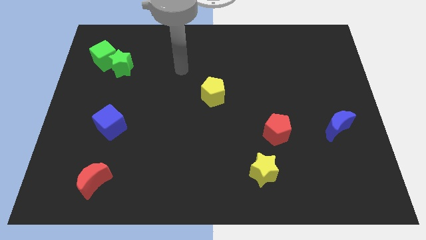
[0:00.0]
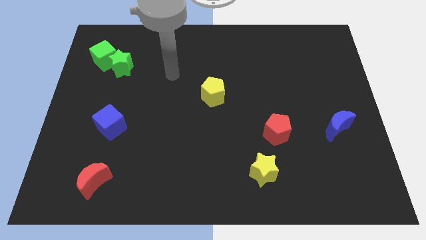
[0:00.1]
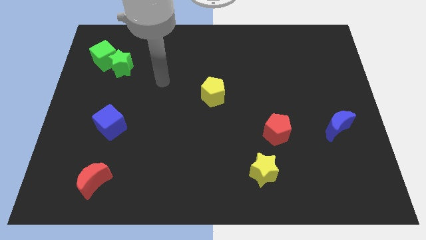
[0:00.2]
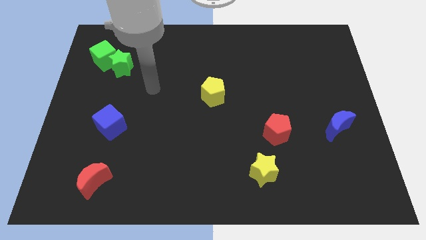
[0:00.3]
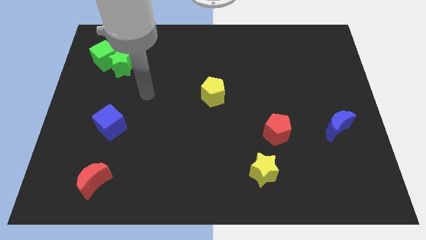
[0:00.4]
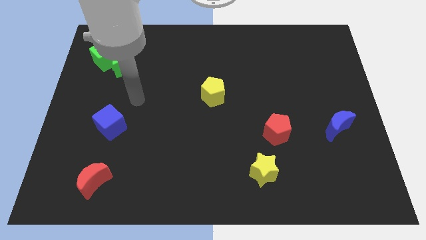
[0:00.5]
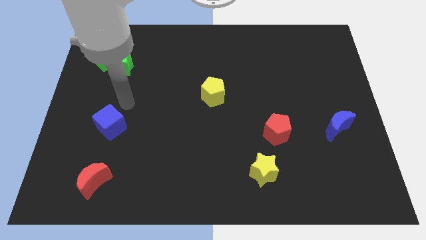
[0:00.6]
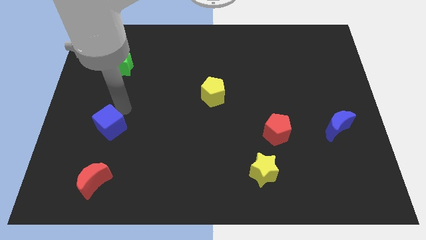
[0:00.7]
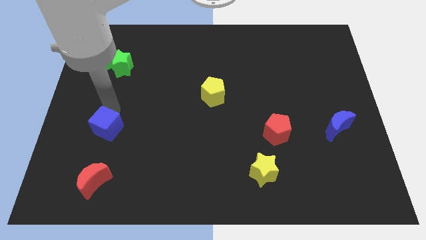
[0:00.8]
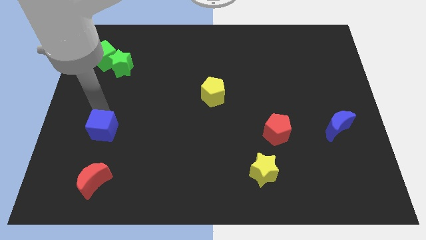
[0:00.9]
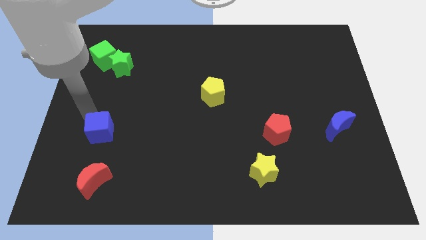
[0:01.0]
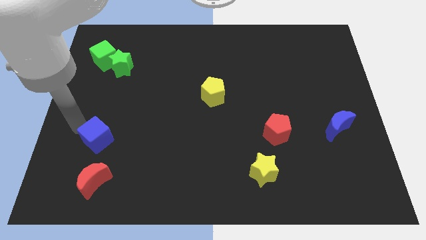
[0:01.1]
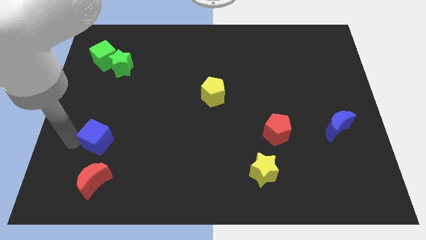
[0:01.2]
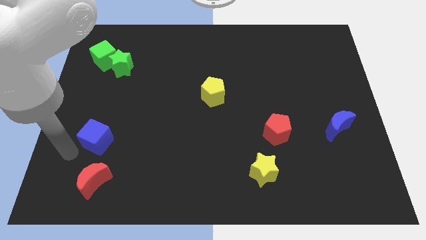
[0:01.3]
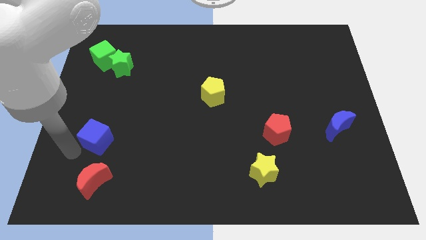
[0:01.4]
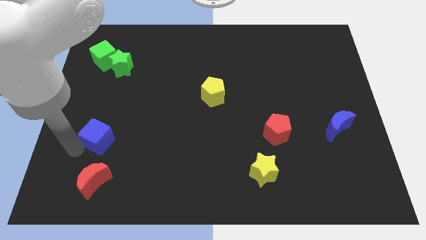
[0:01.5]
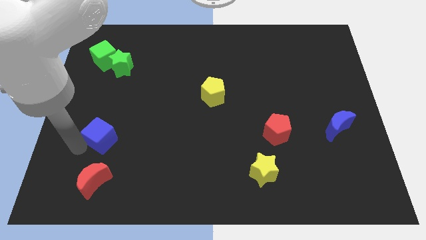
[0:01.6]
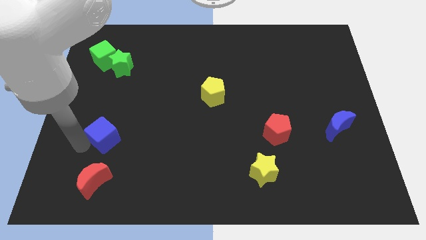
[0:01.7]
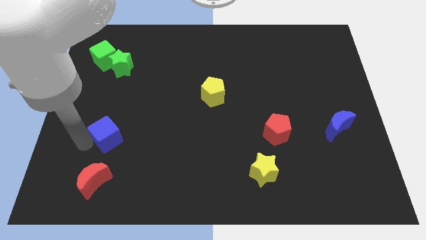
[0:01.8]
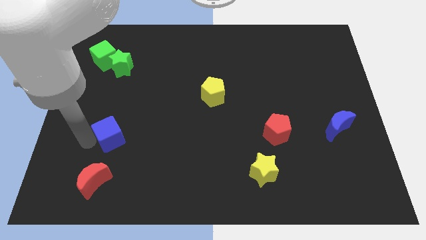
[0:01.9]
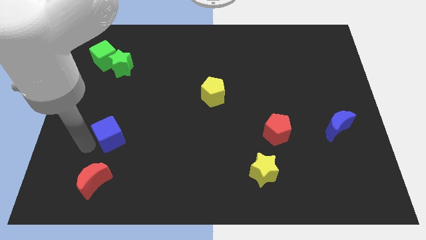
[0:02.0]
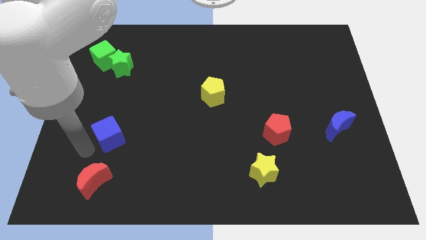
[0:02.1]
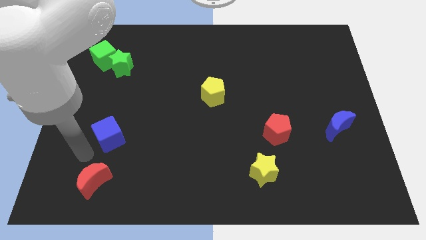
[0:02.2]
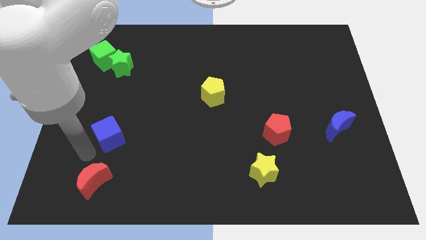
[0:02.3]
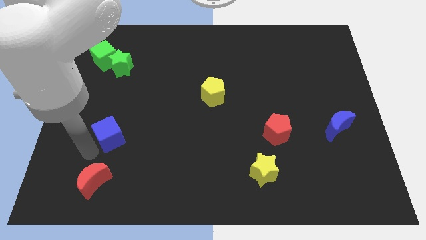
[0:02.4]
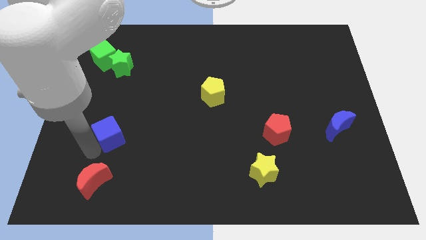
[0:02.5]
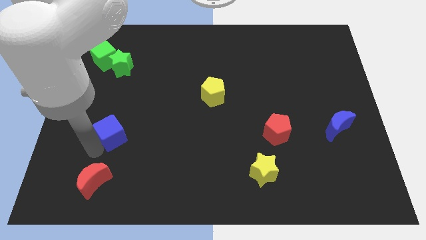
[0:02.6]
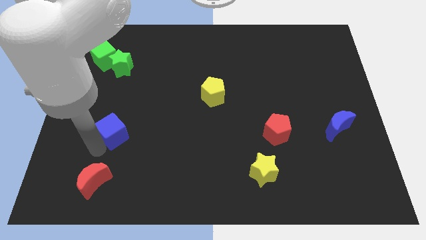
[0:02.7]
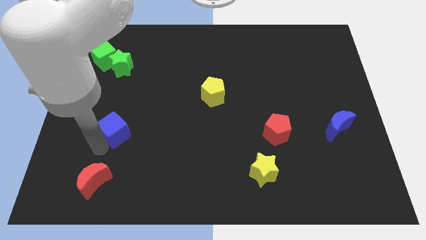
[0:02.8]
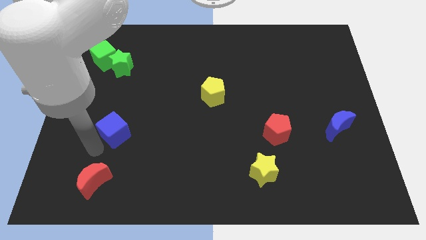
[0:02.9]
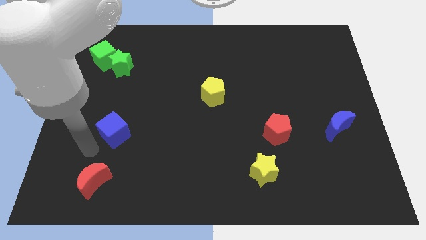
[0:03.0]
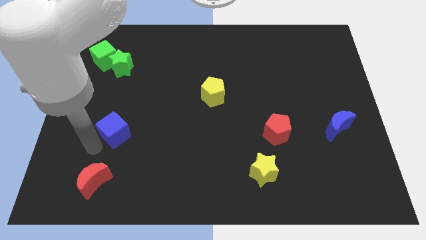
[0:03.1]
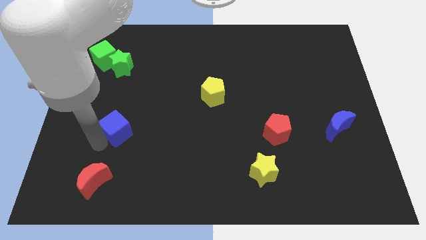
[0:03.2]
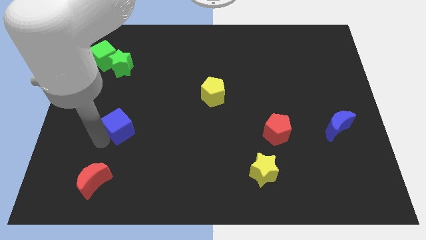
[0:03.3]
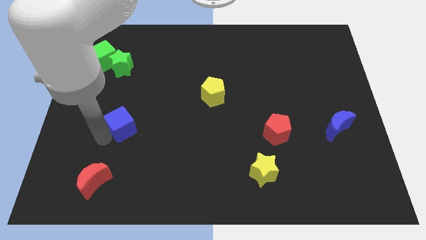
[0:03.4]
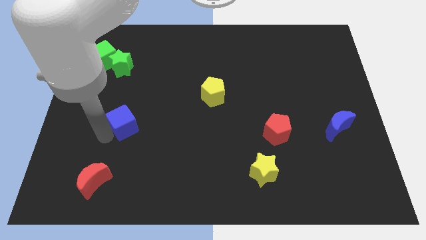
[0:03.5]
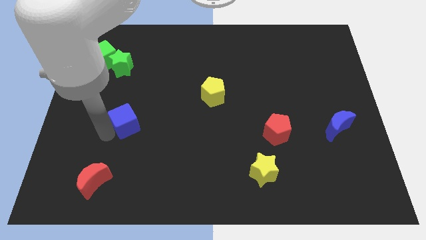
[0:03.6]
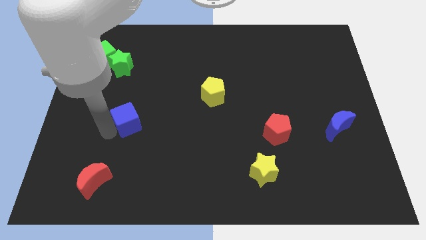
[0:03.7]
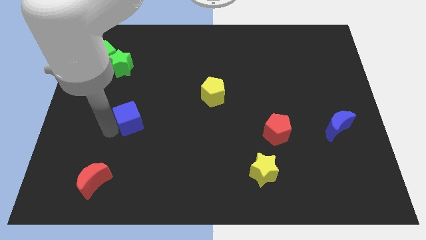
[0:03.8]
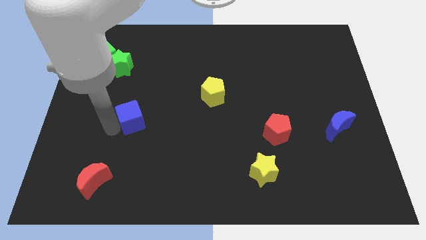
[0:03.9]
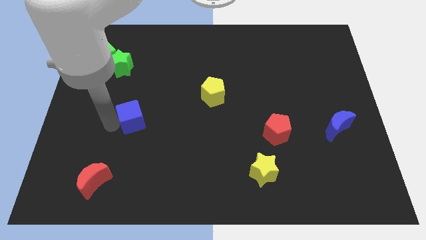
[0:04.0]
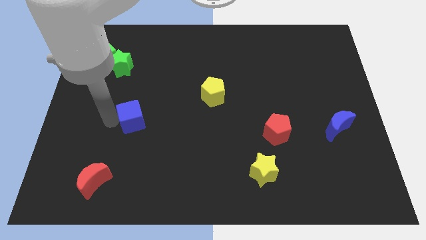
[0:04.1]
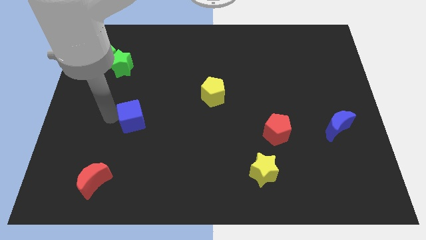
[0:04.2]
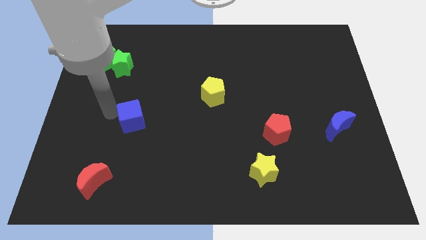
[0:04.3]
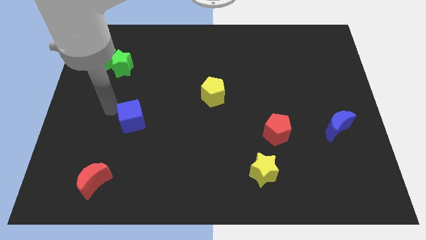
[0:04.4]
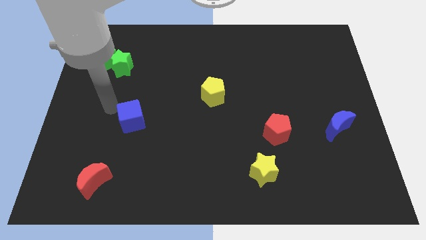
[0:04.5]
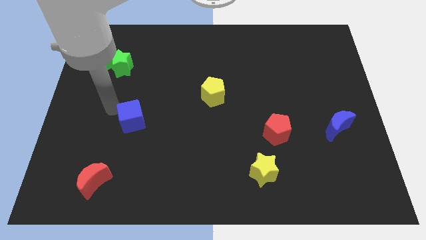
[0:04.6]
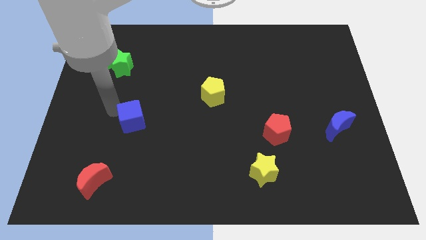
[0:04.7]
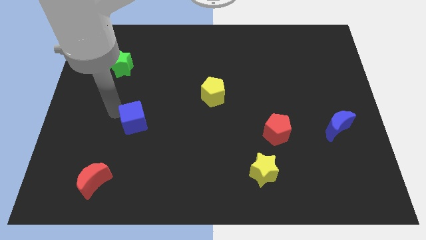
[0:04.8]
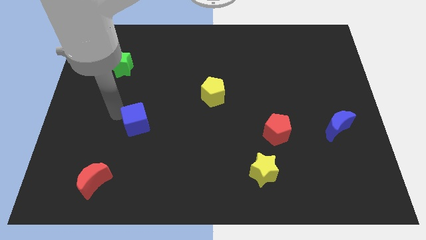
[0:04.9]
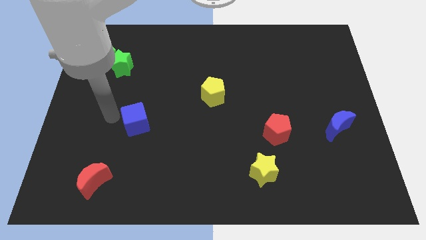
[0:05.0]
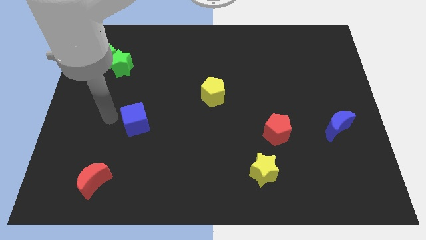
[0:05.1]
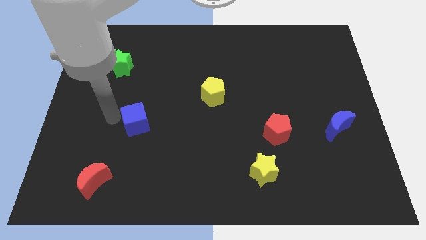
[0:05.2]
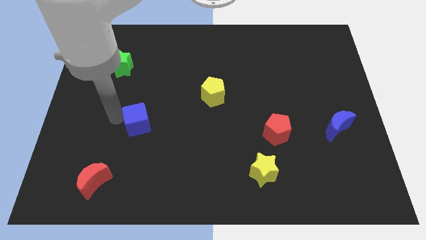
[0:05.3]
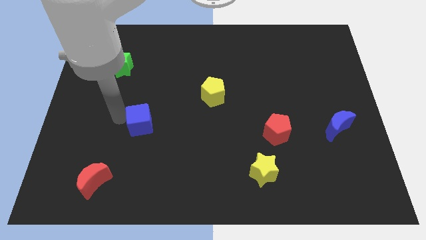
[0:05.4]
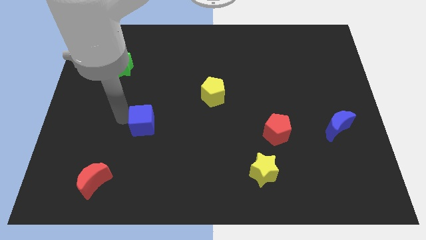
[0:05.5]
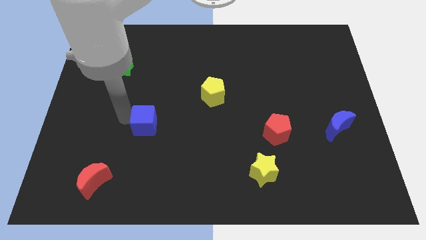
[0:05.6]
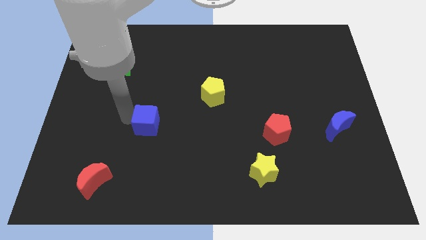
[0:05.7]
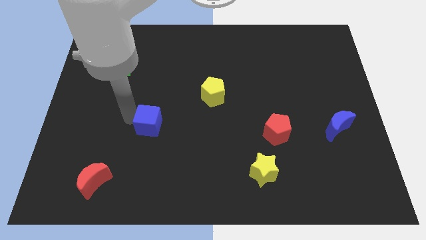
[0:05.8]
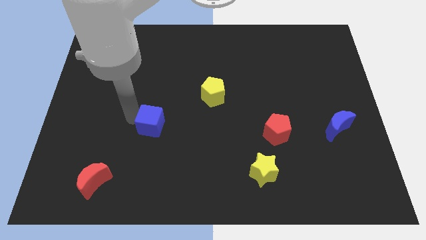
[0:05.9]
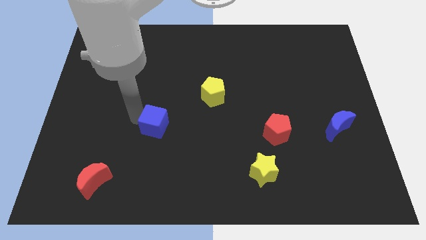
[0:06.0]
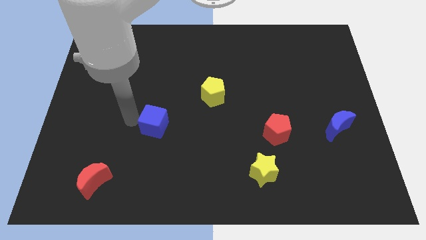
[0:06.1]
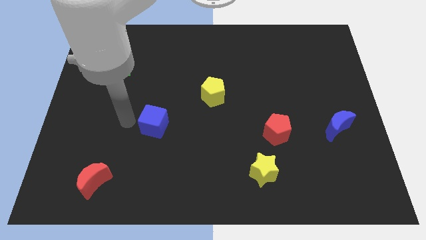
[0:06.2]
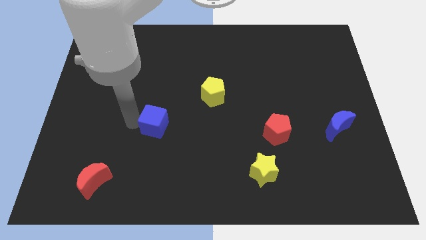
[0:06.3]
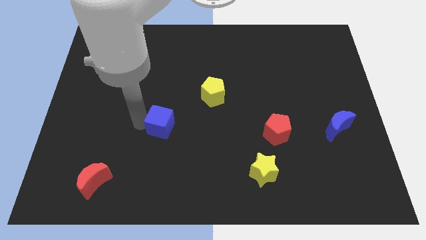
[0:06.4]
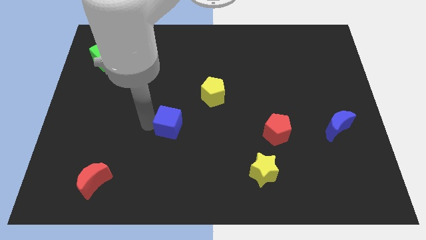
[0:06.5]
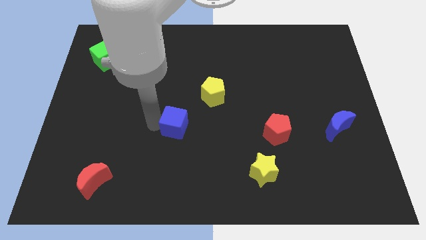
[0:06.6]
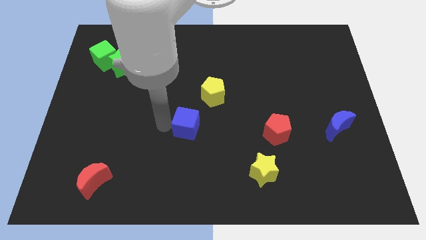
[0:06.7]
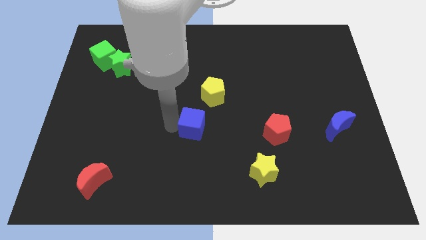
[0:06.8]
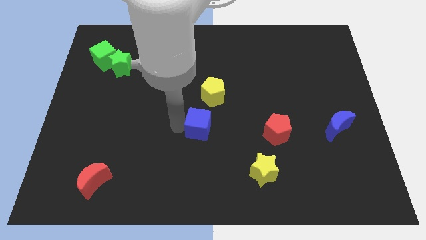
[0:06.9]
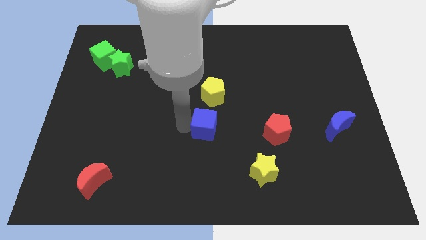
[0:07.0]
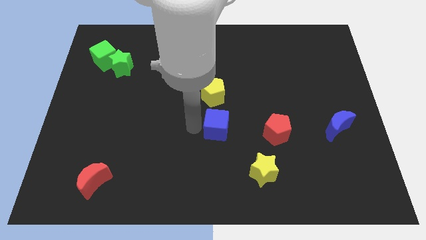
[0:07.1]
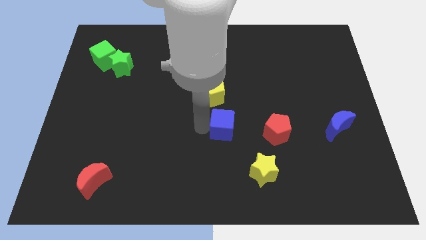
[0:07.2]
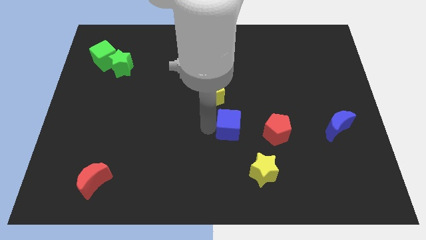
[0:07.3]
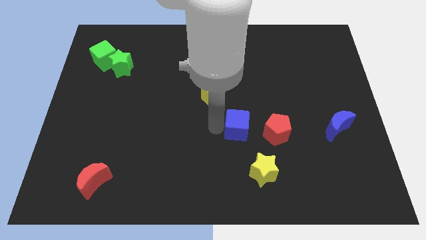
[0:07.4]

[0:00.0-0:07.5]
move the blue cube to the top of the yellow star
